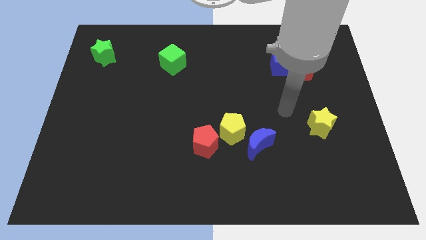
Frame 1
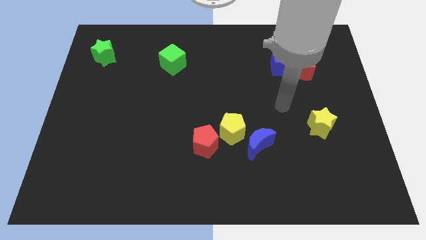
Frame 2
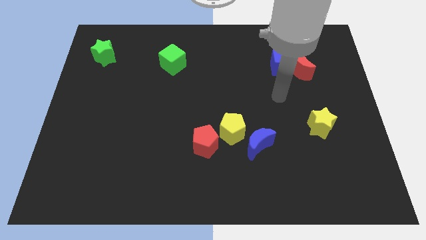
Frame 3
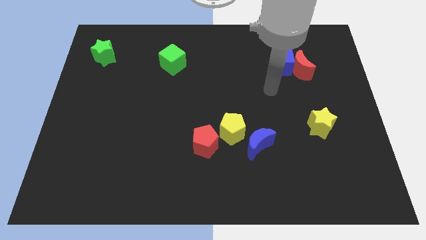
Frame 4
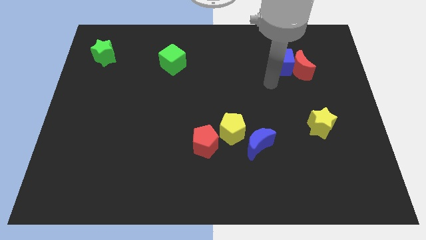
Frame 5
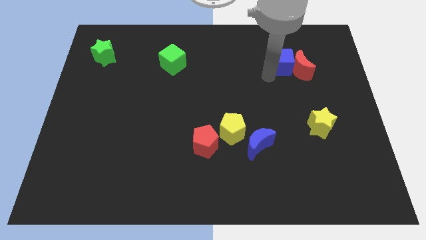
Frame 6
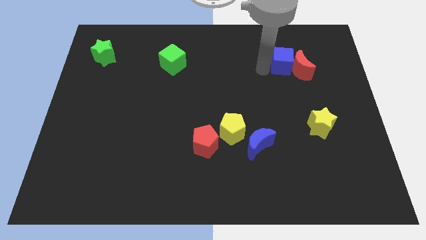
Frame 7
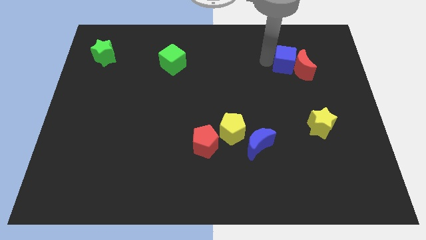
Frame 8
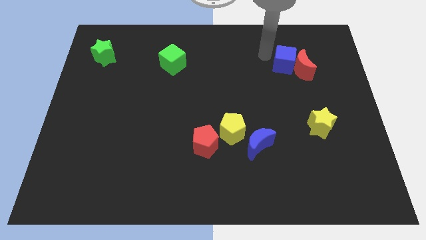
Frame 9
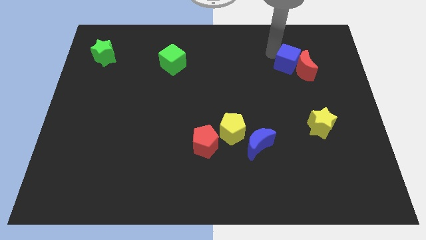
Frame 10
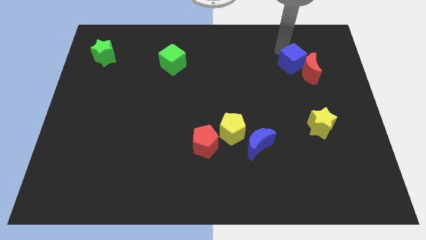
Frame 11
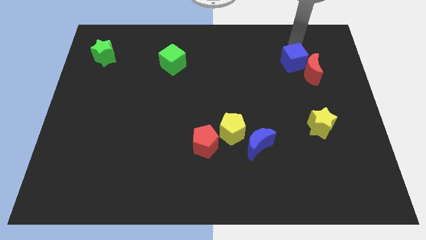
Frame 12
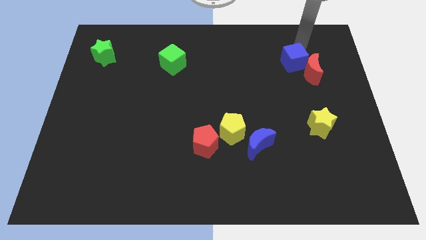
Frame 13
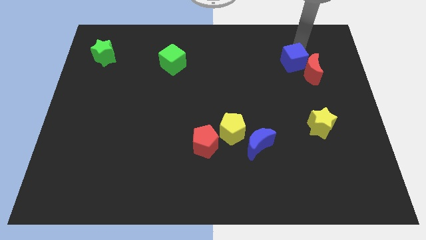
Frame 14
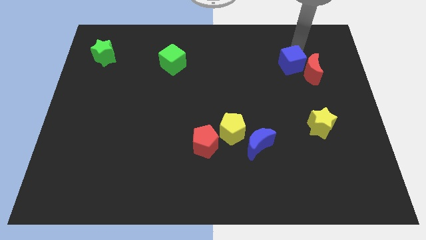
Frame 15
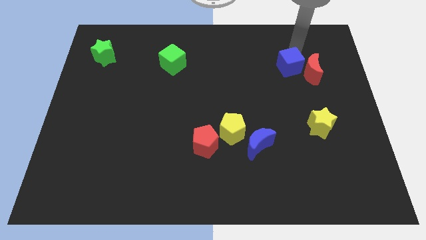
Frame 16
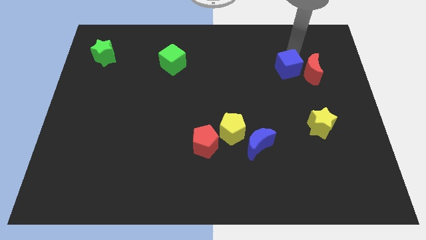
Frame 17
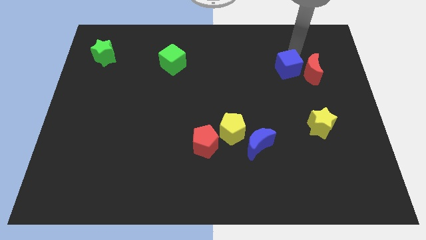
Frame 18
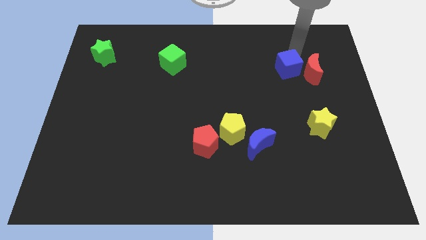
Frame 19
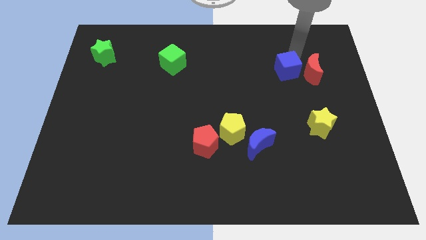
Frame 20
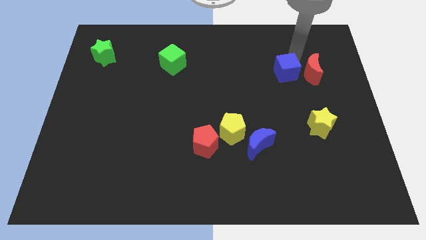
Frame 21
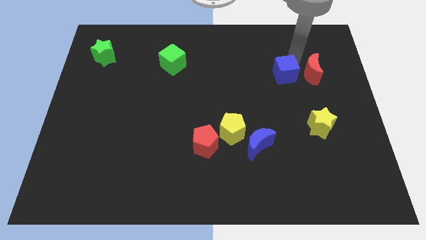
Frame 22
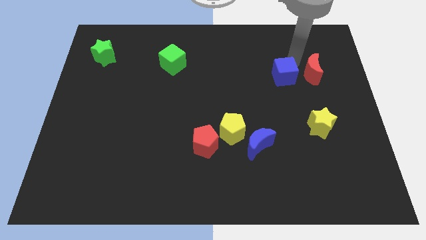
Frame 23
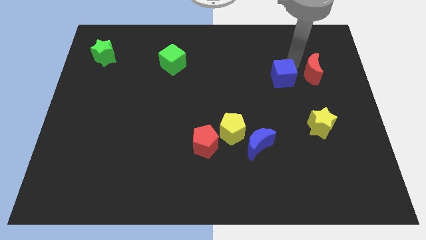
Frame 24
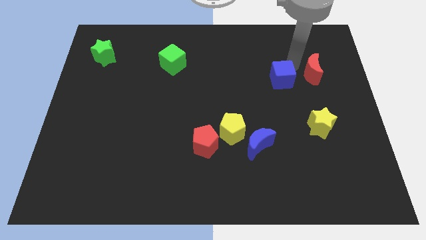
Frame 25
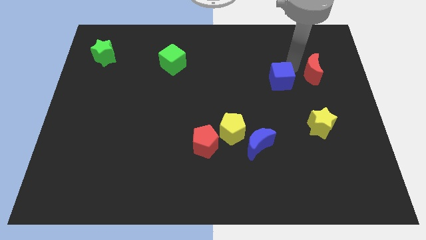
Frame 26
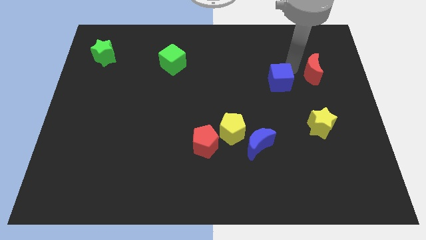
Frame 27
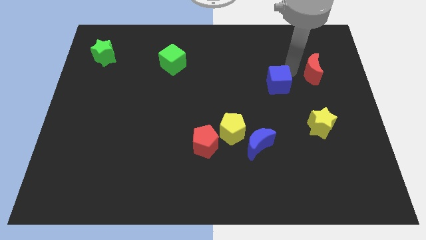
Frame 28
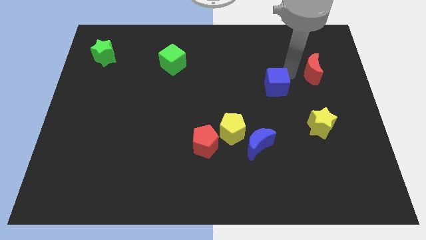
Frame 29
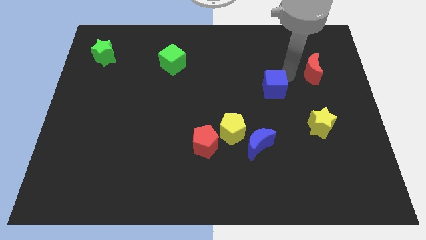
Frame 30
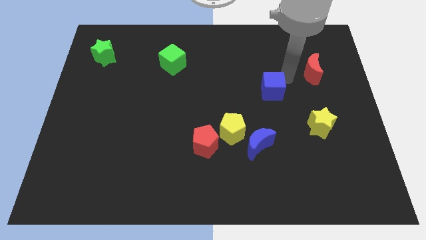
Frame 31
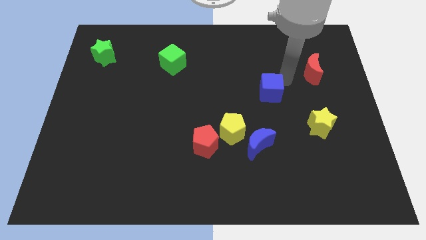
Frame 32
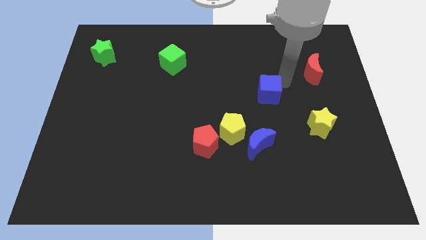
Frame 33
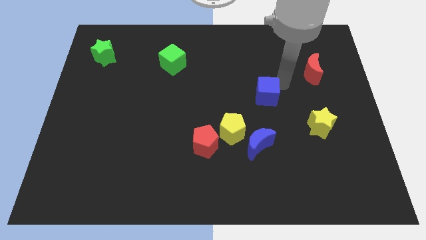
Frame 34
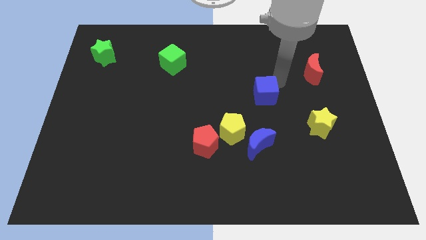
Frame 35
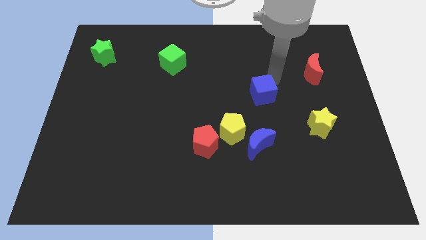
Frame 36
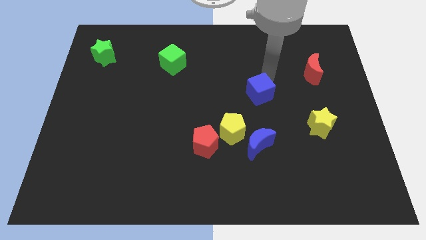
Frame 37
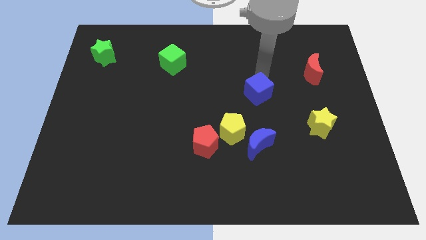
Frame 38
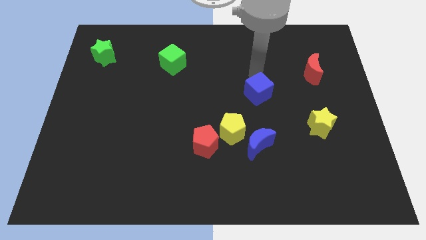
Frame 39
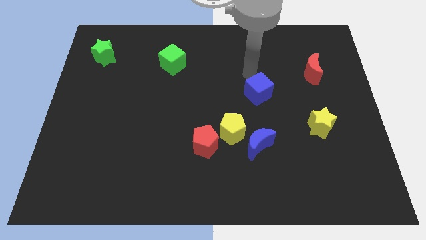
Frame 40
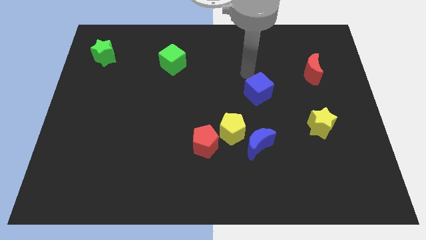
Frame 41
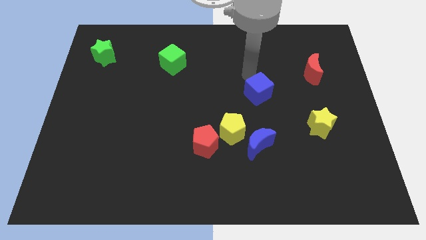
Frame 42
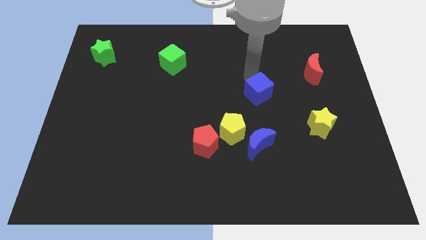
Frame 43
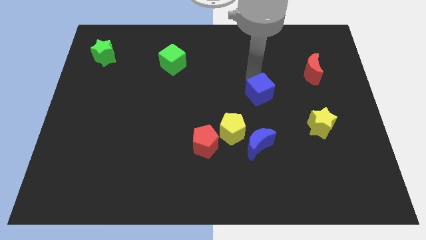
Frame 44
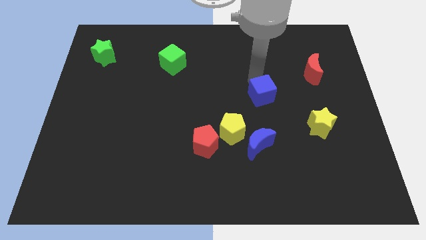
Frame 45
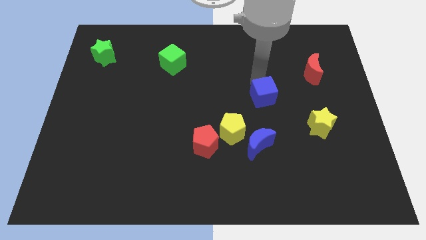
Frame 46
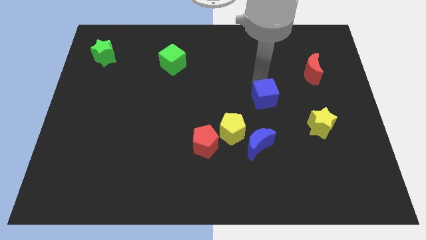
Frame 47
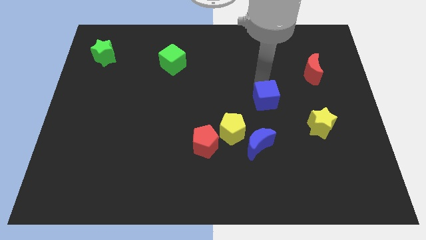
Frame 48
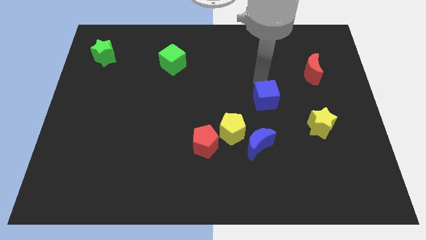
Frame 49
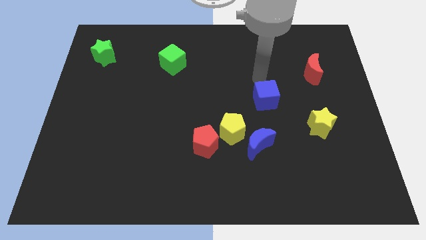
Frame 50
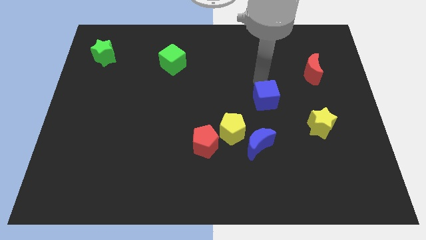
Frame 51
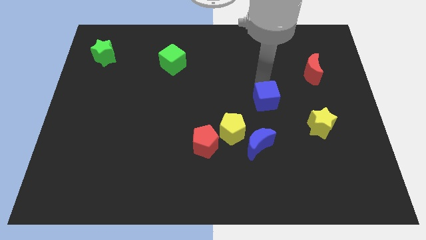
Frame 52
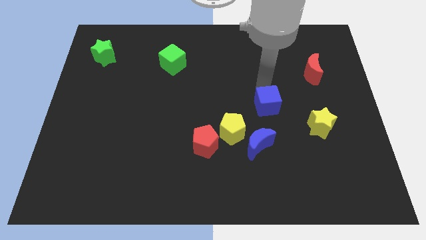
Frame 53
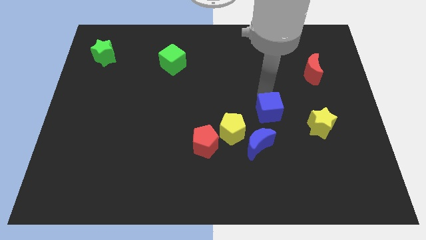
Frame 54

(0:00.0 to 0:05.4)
move the blue cube left of the yellow star

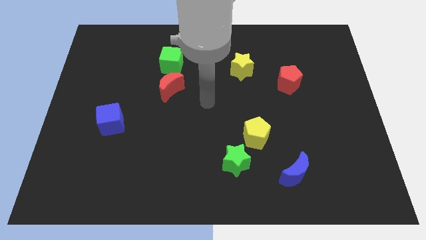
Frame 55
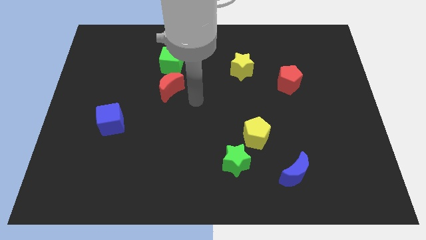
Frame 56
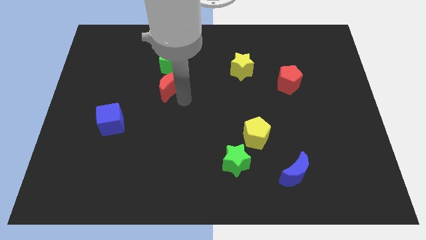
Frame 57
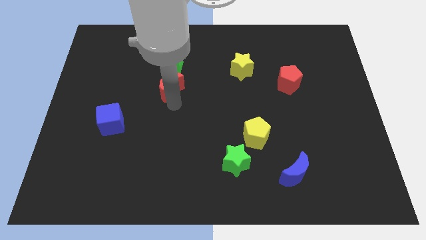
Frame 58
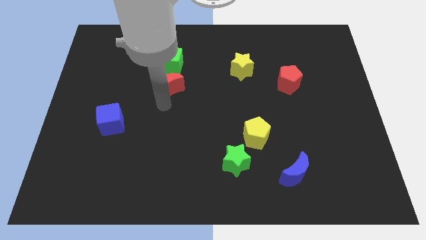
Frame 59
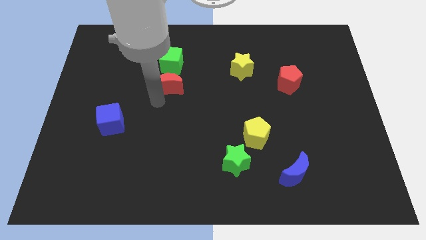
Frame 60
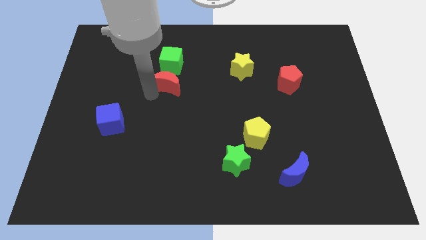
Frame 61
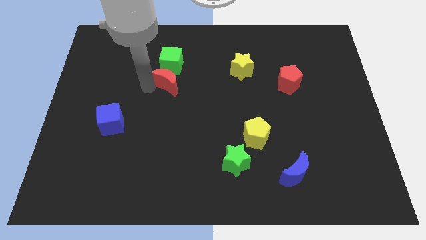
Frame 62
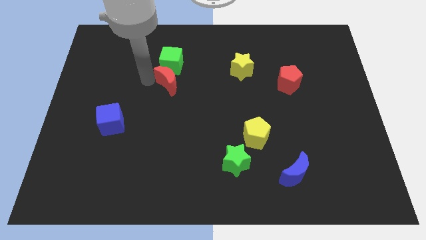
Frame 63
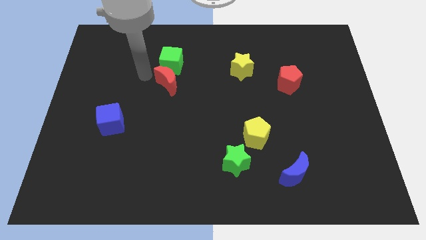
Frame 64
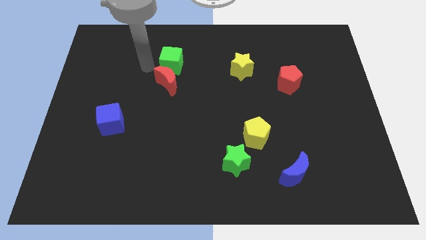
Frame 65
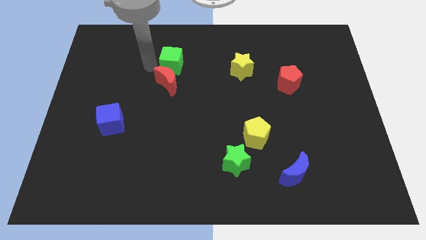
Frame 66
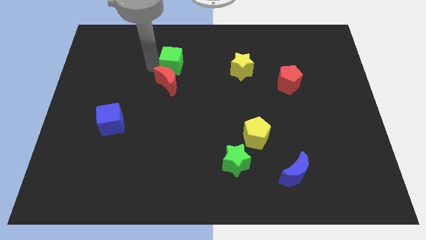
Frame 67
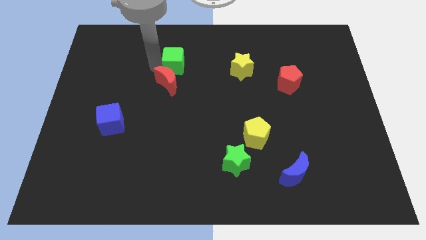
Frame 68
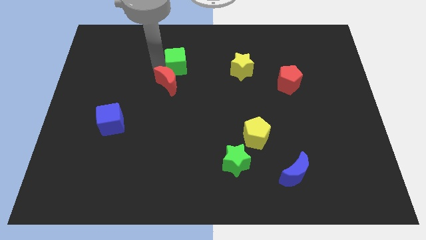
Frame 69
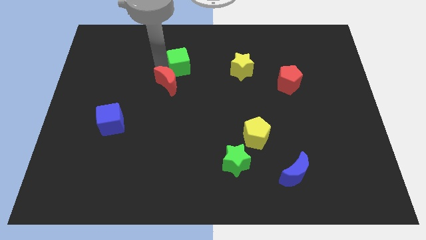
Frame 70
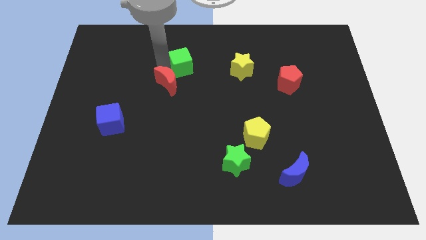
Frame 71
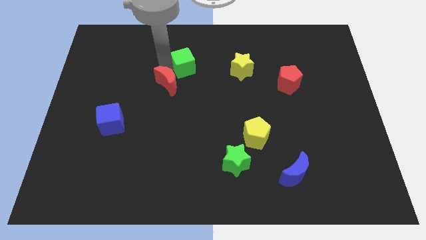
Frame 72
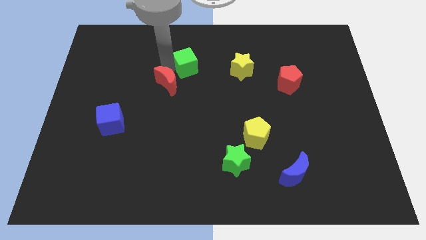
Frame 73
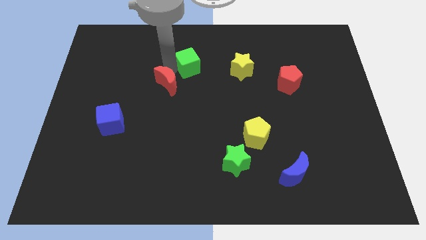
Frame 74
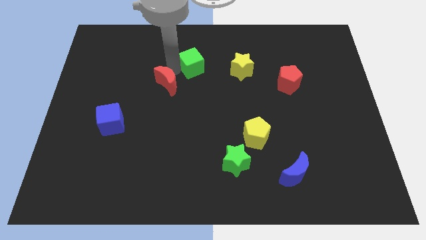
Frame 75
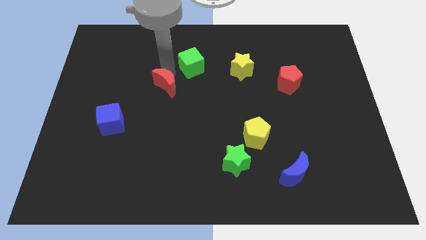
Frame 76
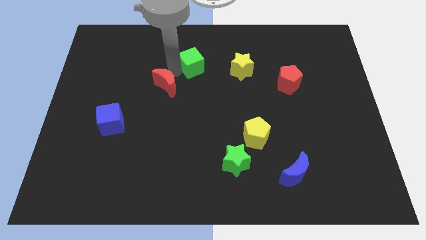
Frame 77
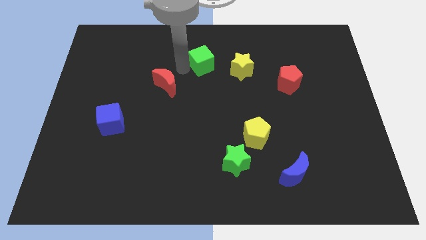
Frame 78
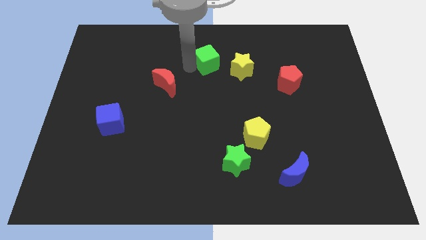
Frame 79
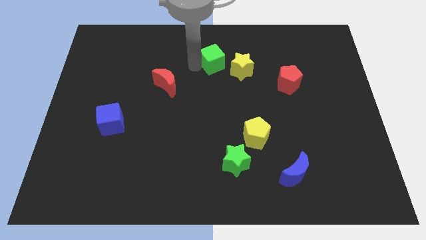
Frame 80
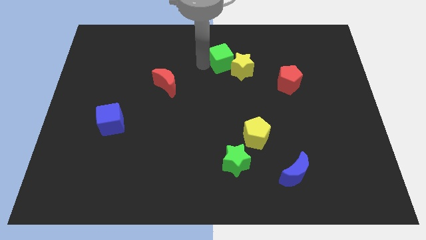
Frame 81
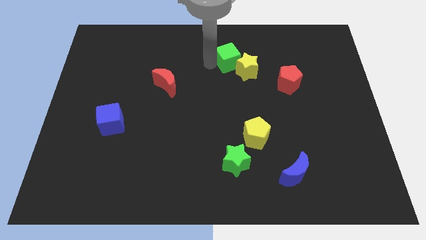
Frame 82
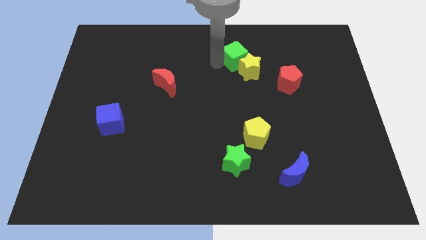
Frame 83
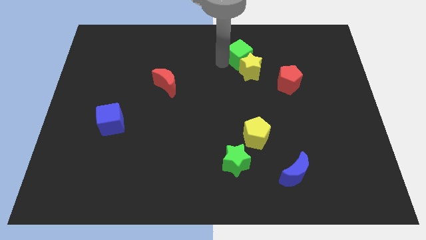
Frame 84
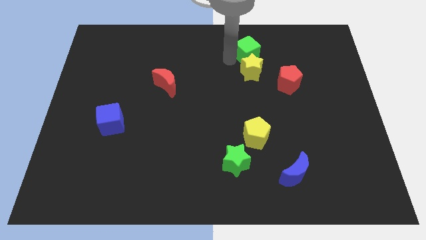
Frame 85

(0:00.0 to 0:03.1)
push the green cube to the top right of the yellow star
